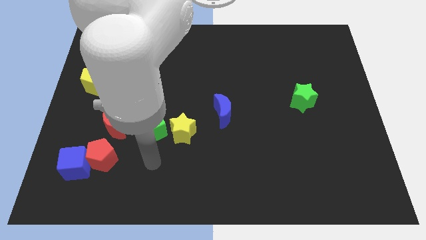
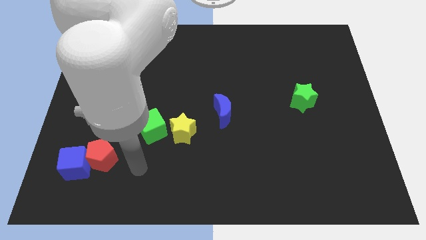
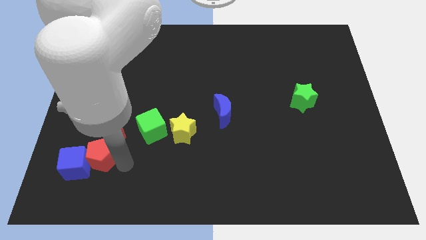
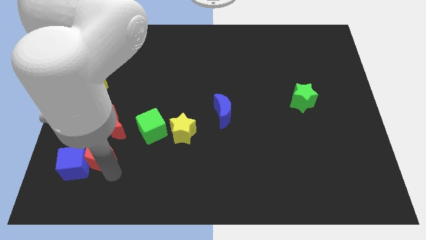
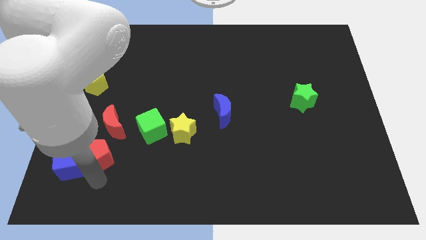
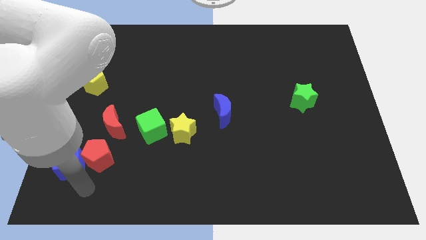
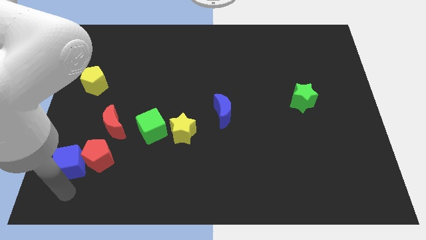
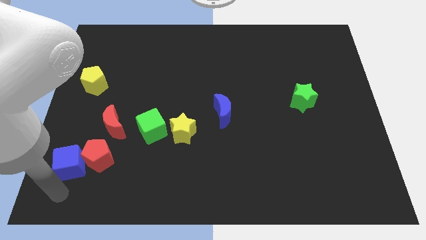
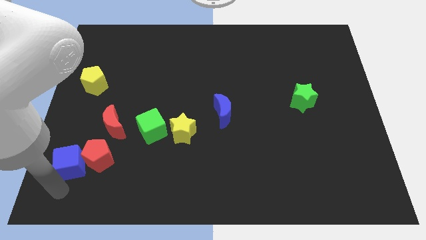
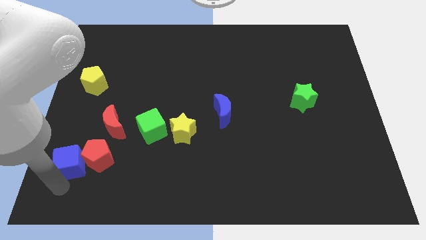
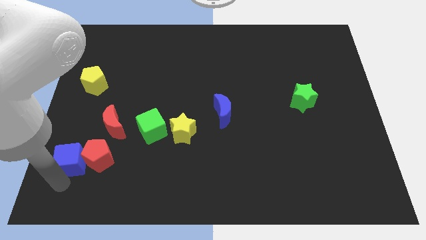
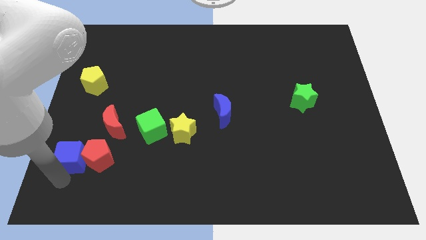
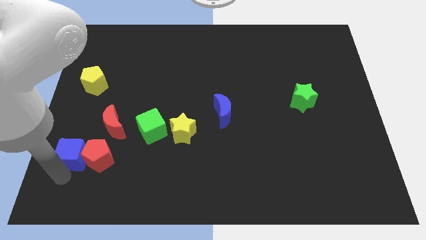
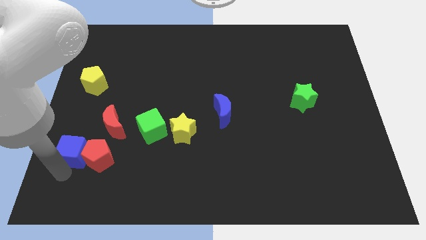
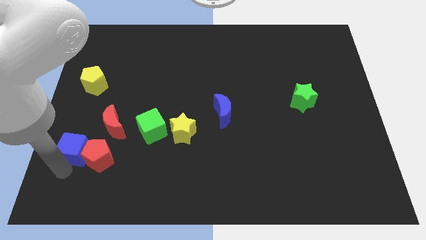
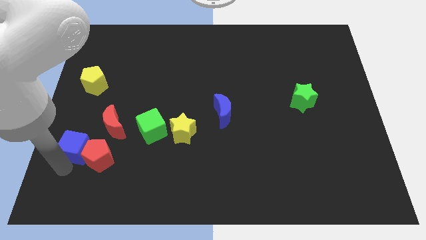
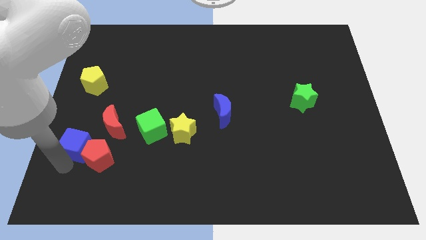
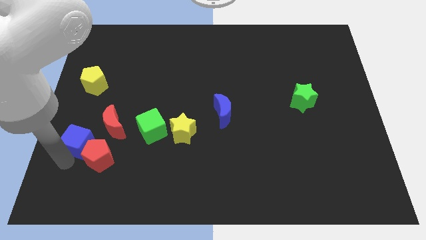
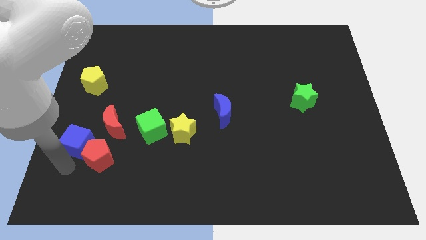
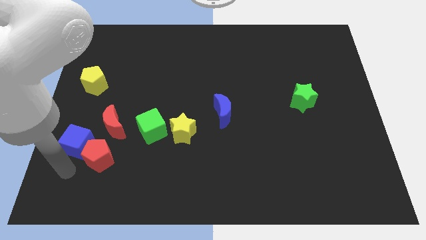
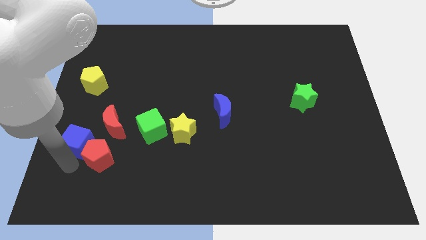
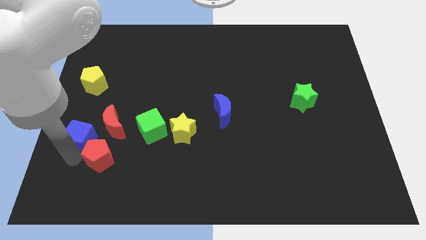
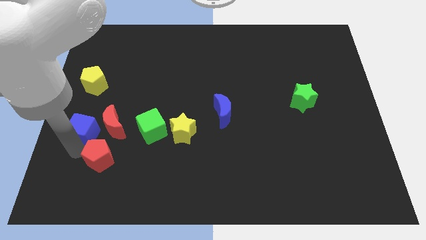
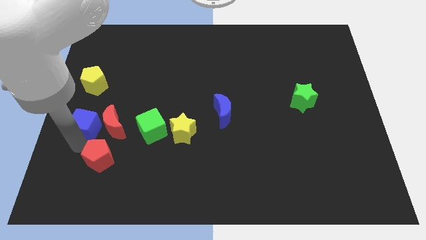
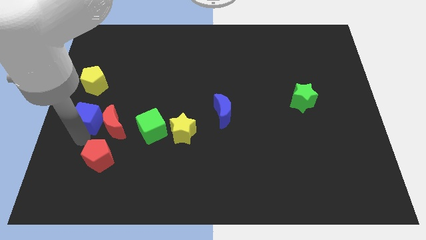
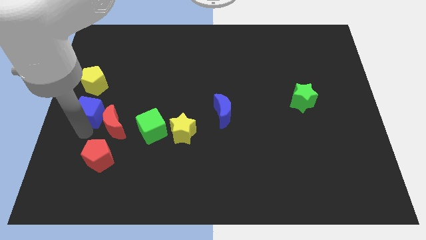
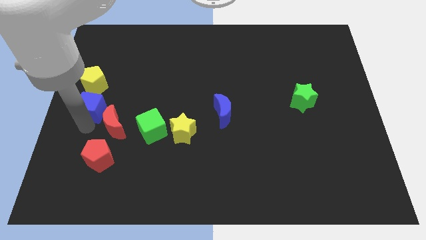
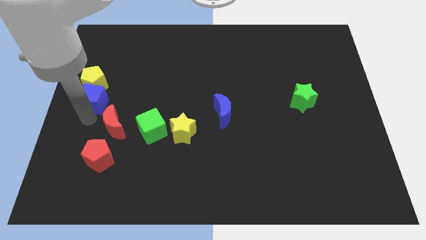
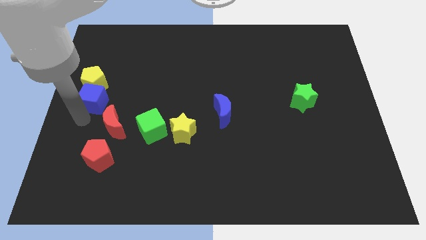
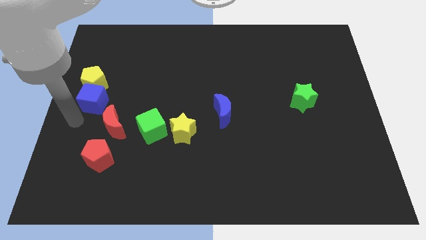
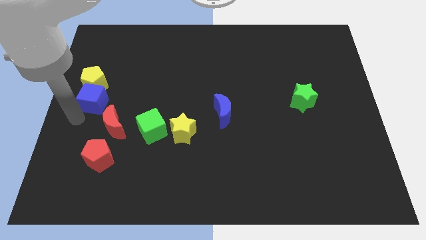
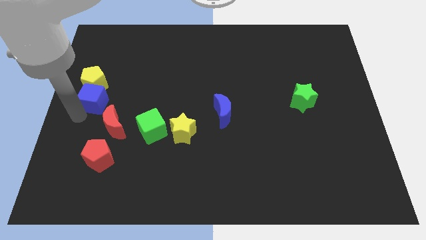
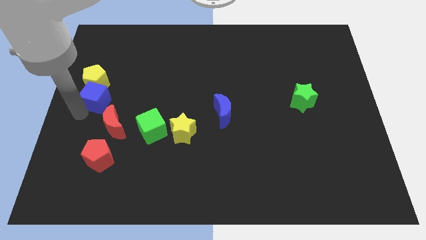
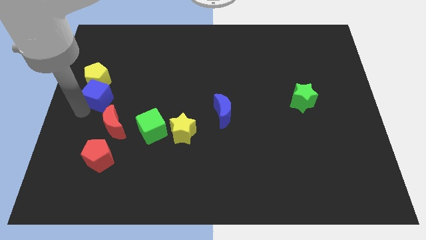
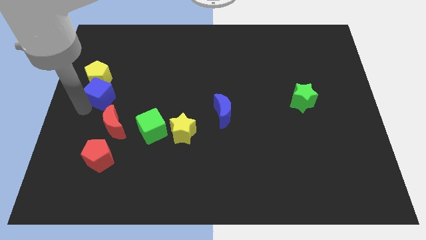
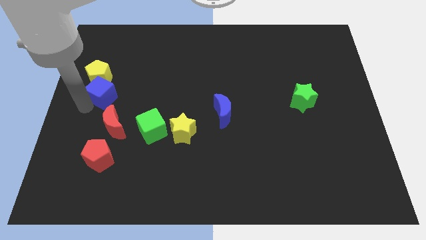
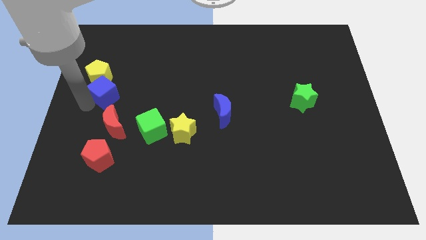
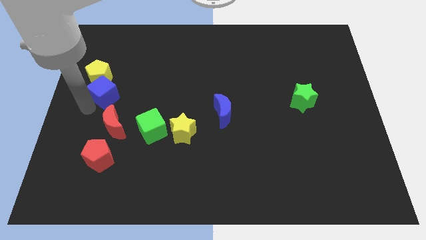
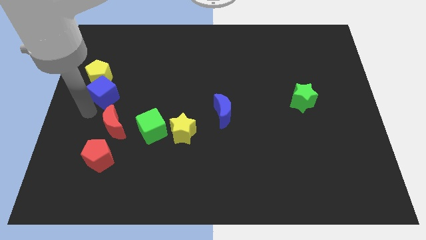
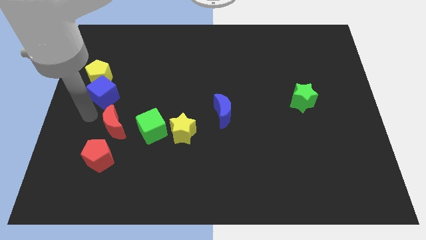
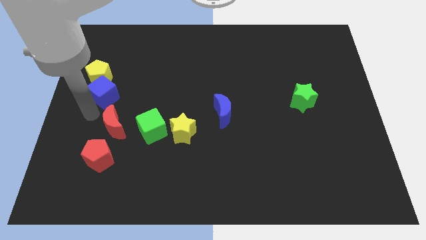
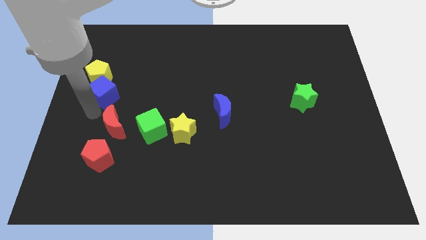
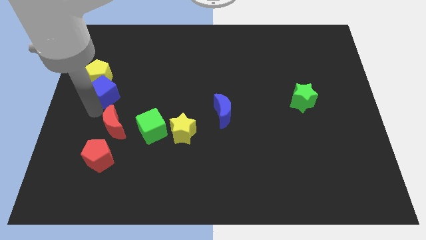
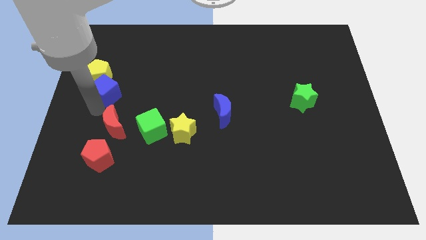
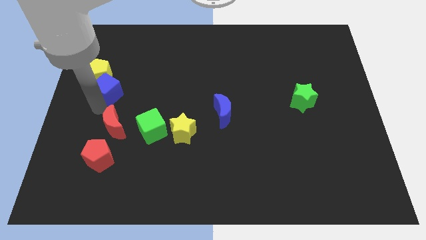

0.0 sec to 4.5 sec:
move the blue cube upwards

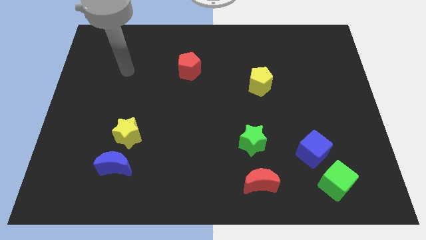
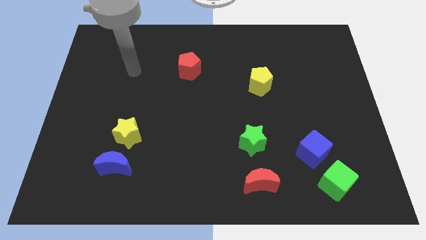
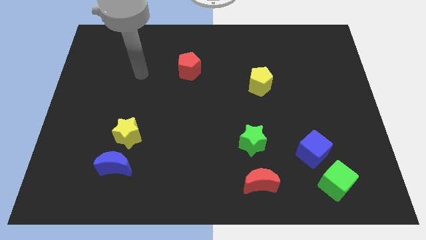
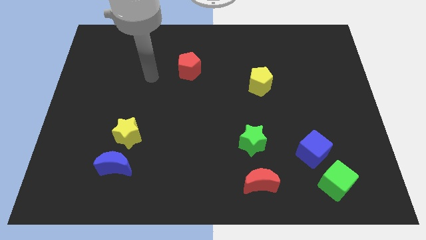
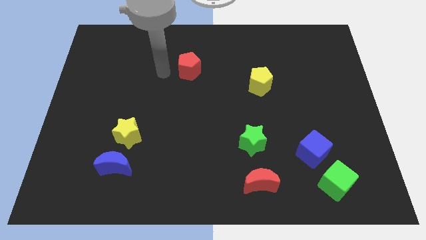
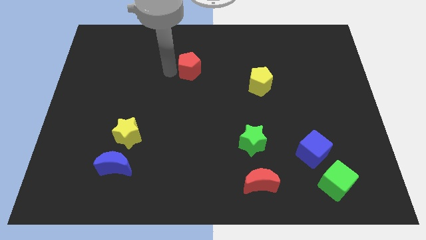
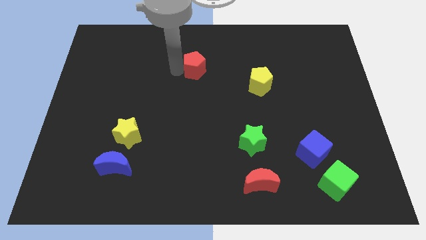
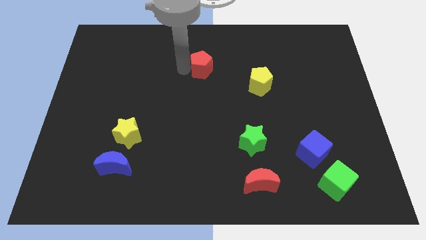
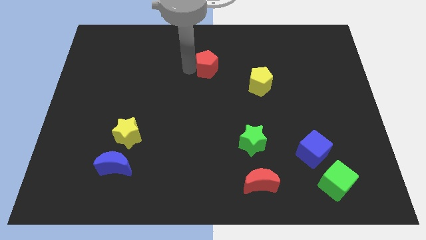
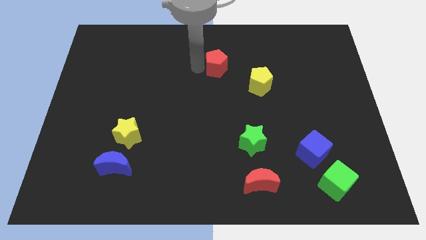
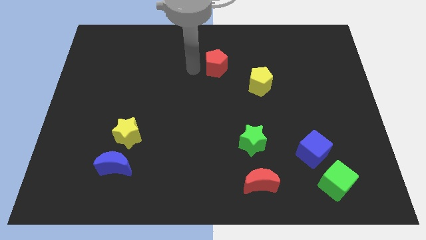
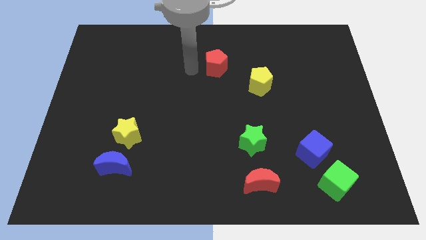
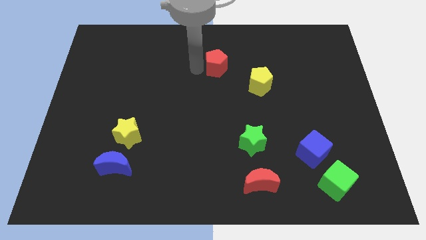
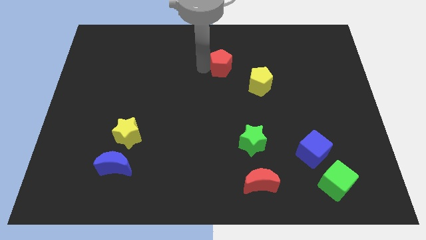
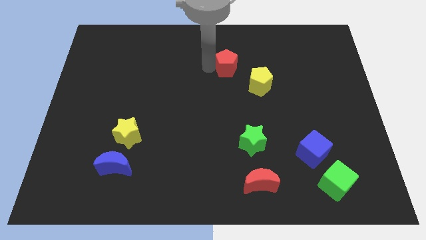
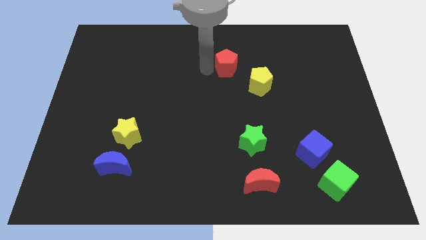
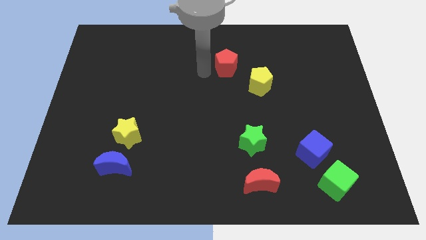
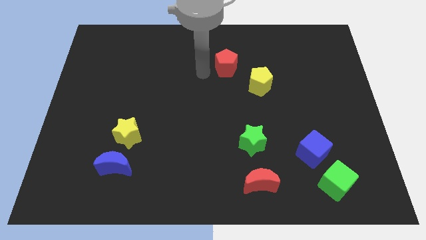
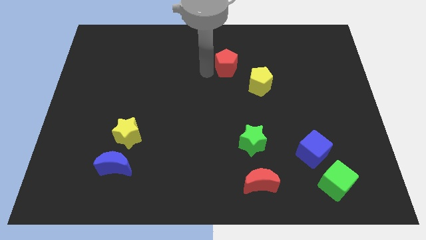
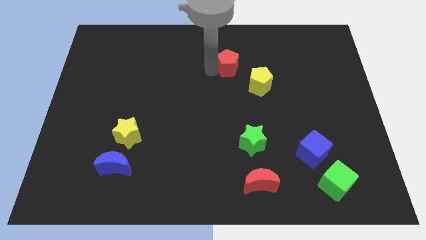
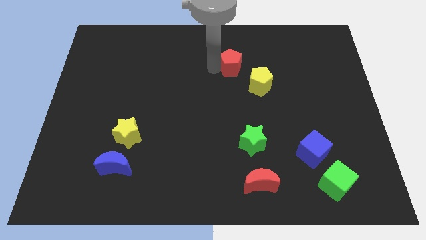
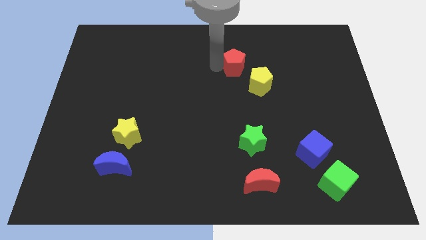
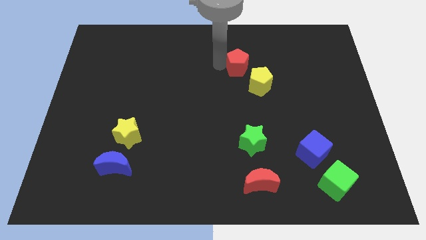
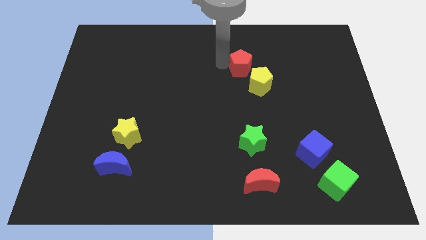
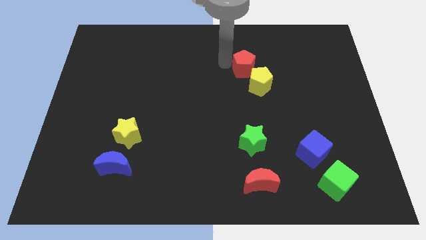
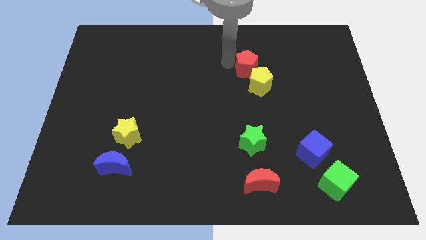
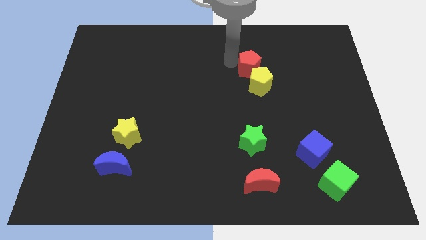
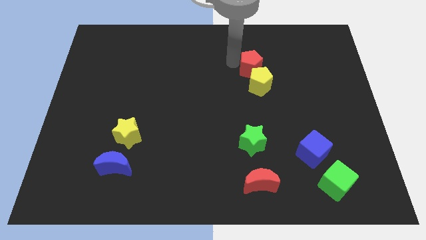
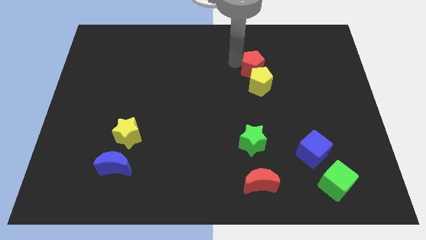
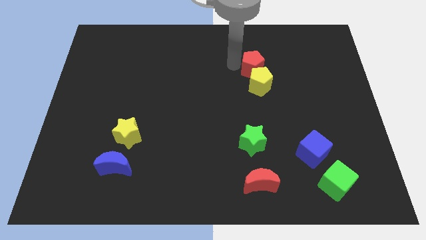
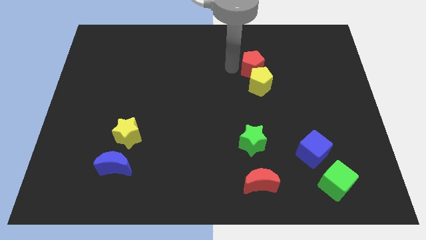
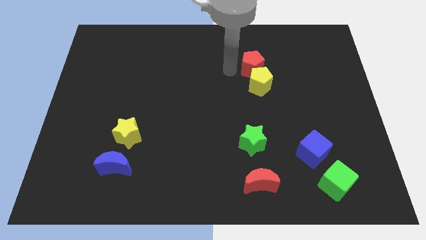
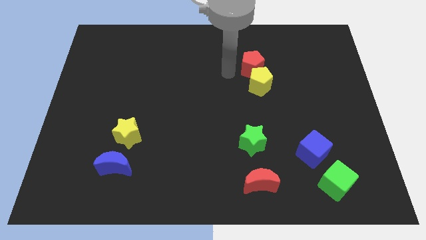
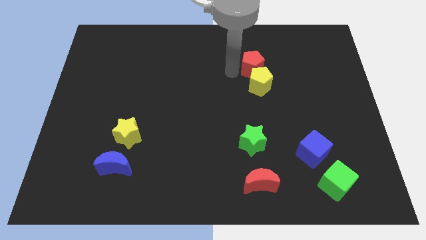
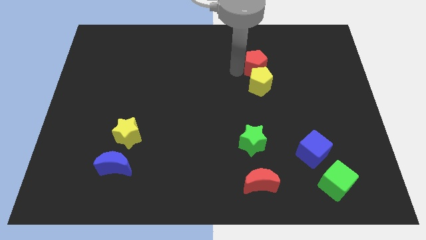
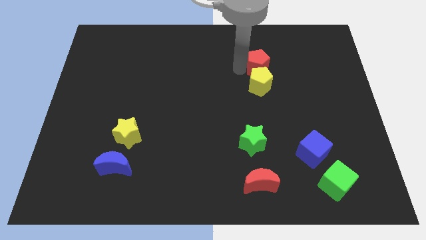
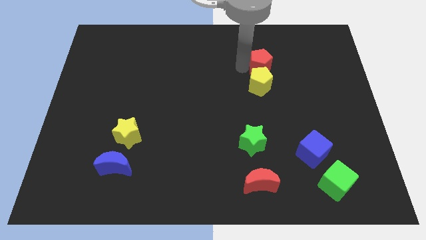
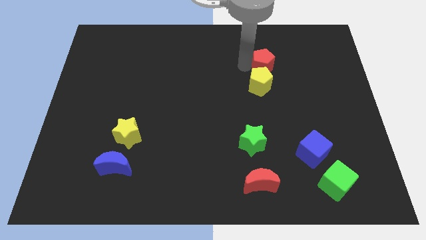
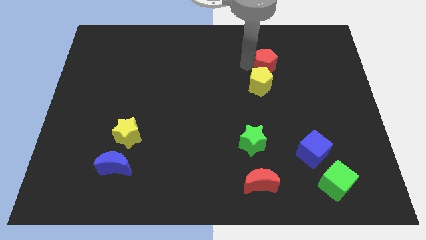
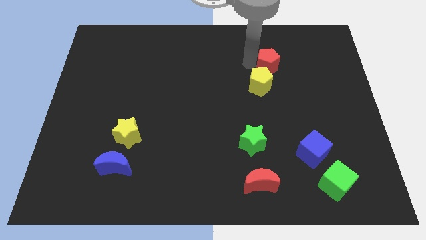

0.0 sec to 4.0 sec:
move the red pentagon to the right
